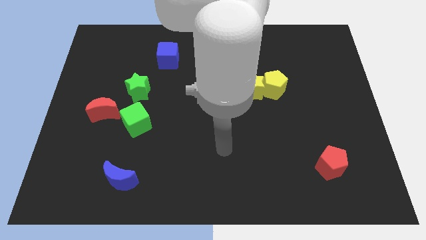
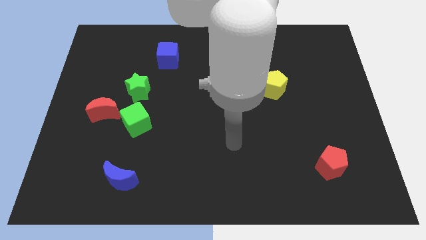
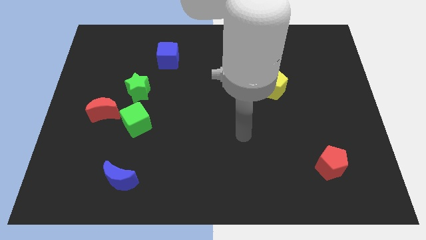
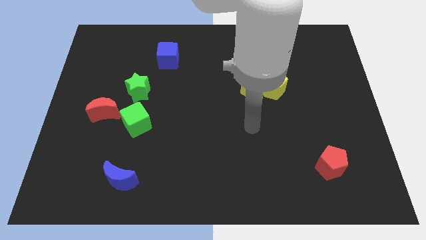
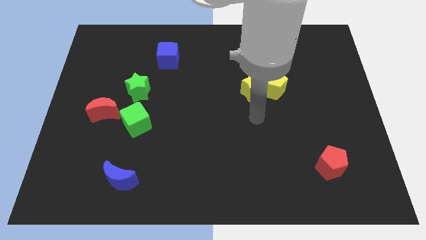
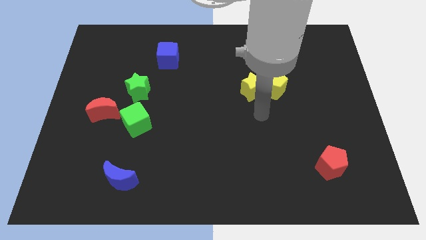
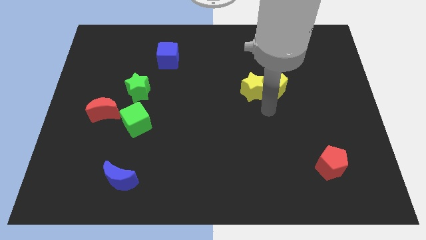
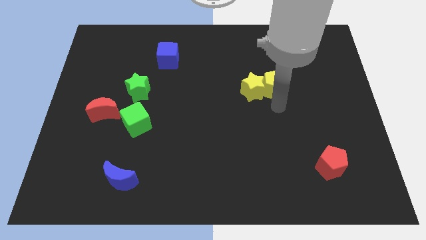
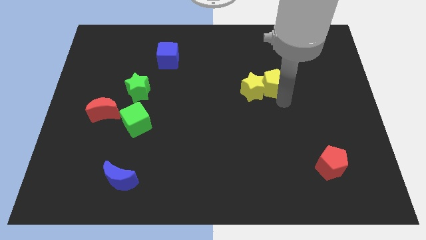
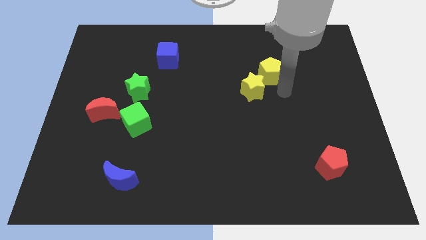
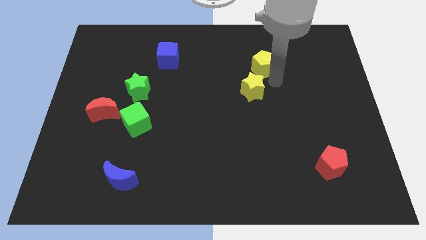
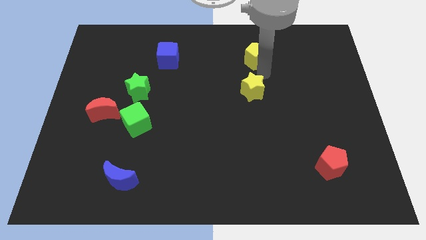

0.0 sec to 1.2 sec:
move the yellow star away from the yellow pentagon

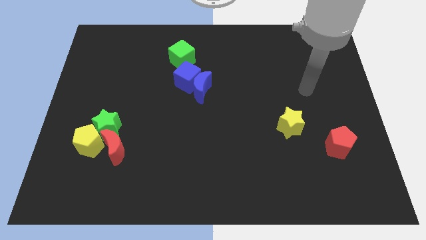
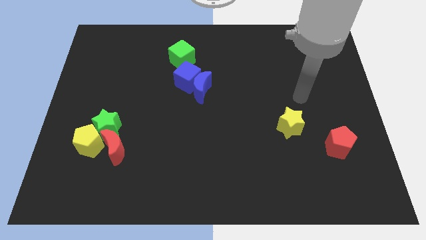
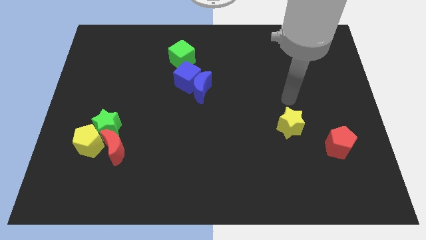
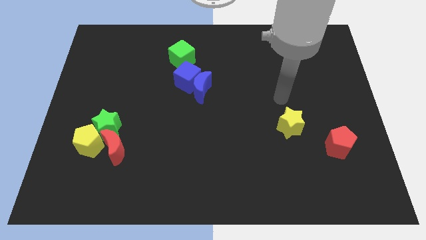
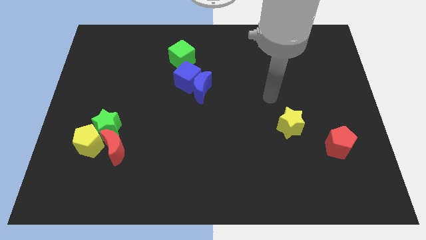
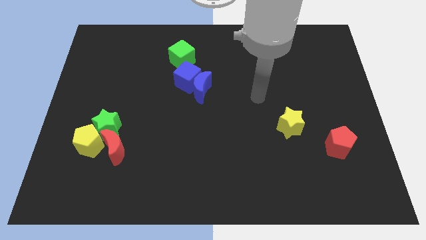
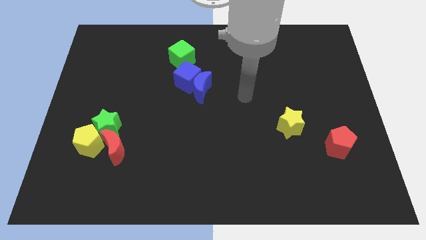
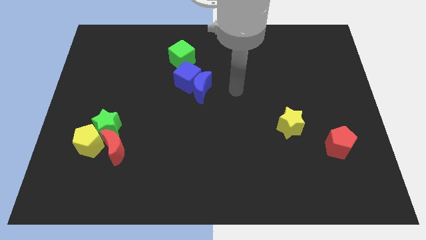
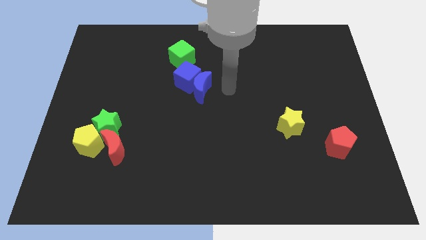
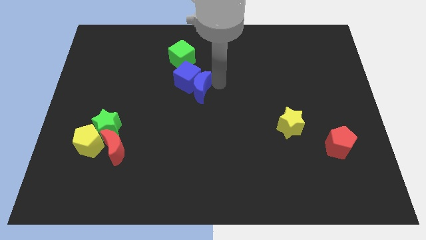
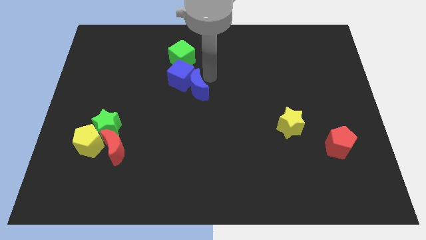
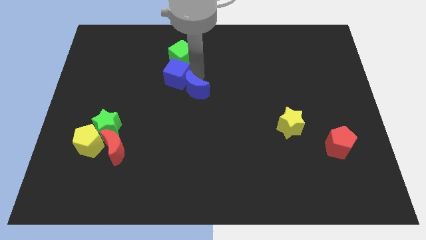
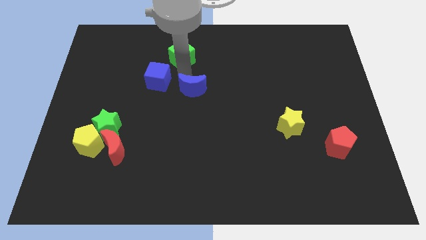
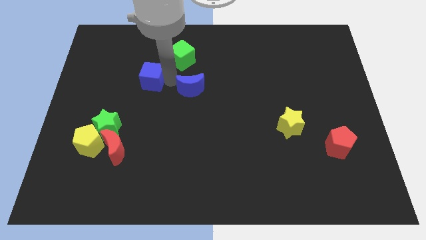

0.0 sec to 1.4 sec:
separate the blue moon from the blue cube

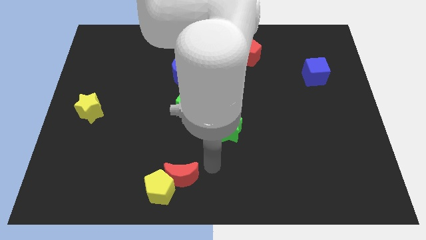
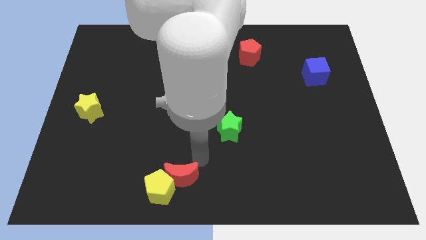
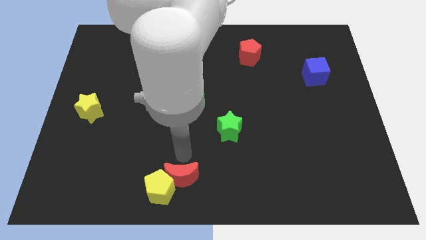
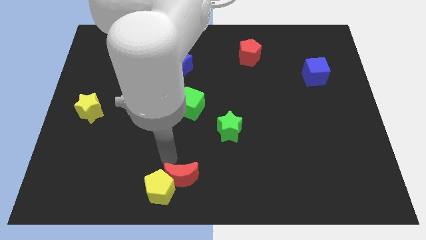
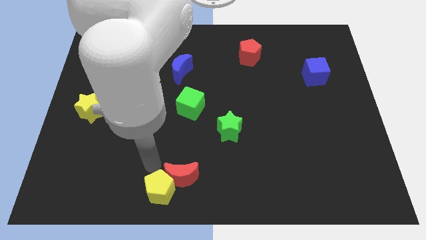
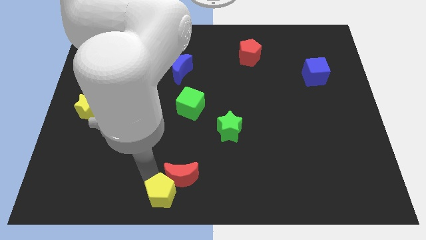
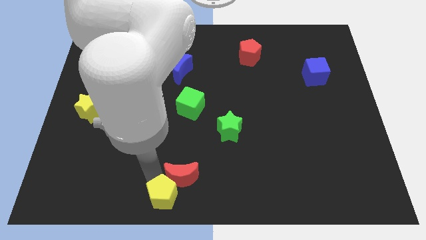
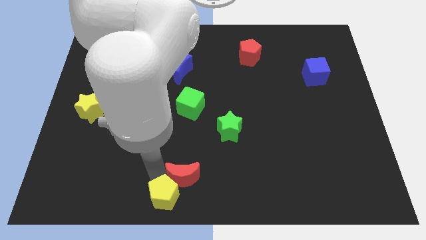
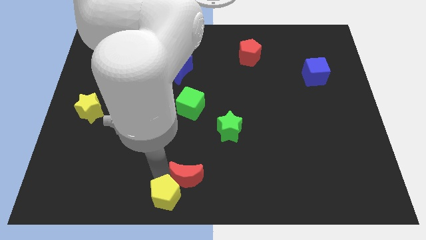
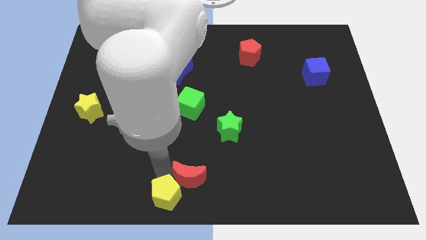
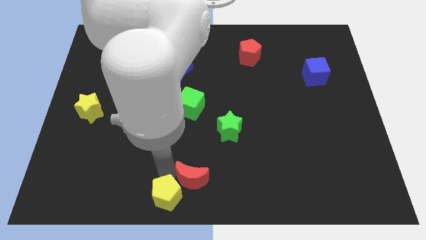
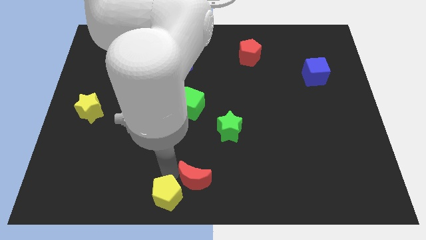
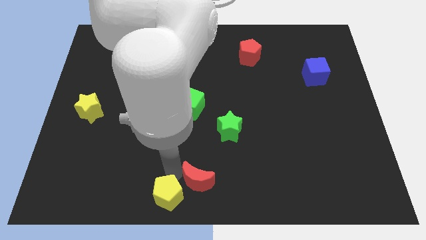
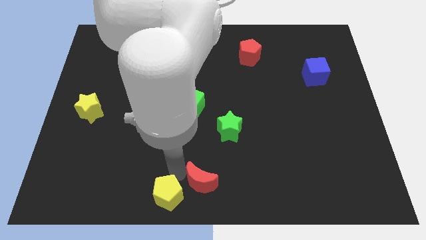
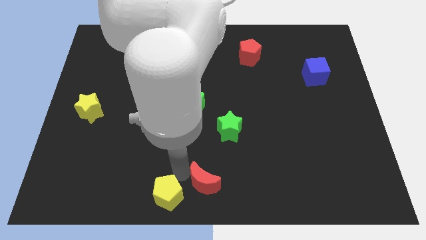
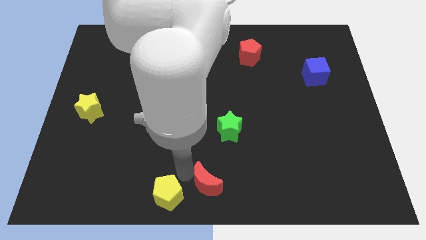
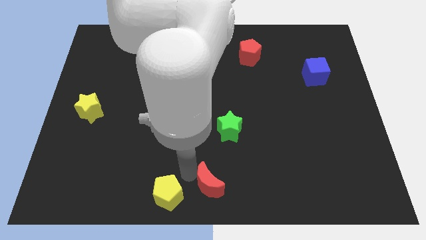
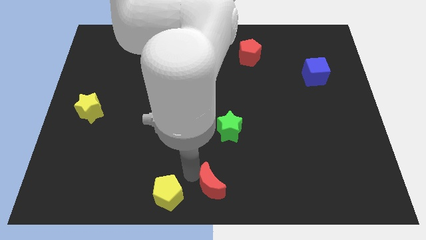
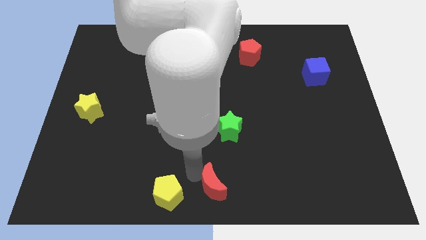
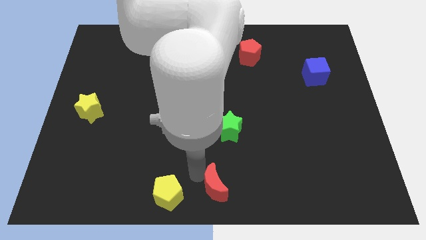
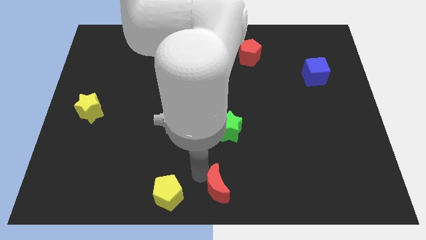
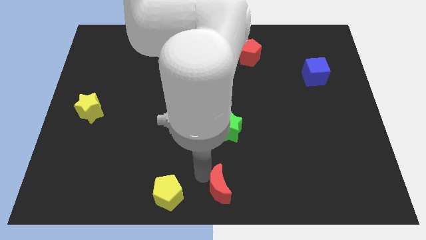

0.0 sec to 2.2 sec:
pull the red moon apart from the yellow pentagon

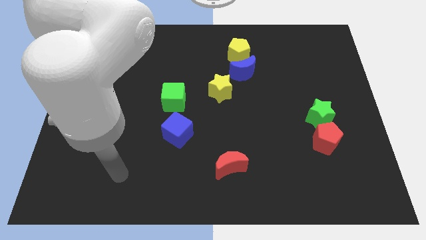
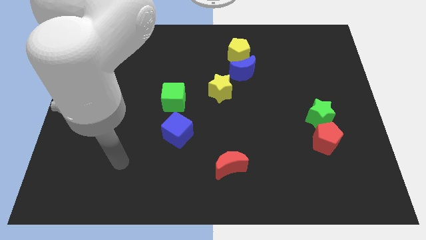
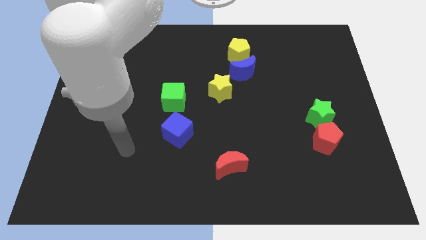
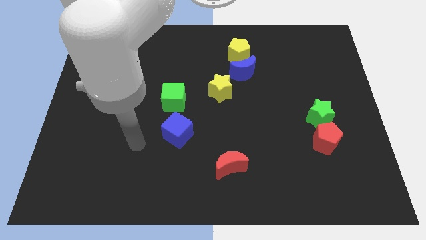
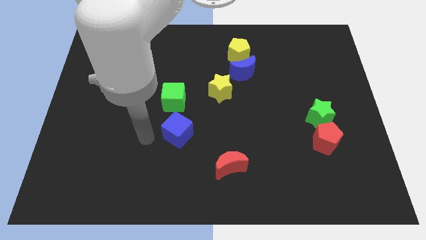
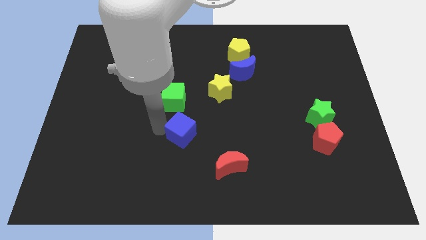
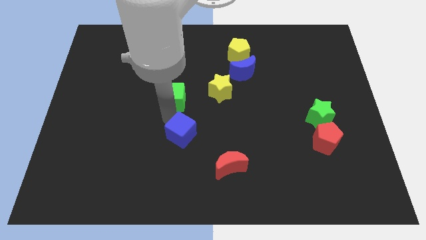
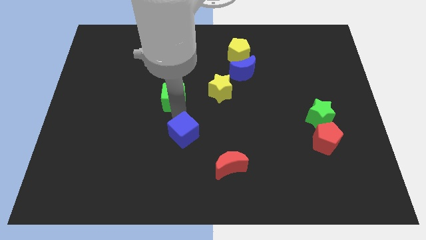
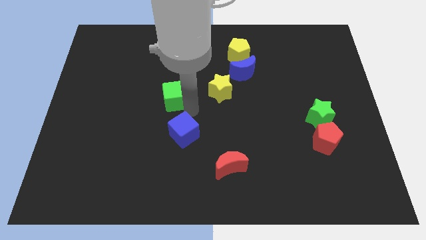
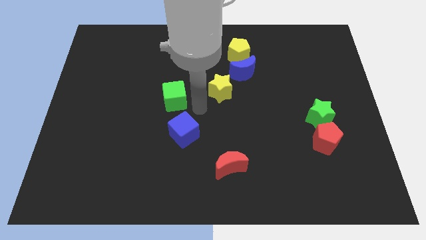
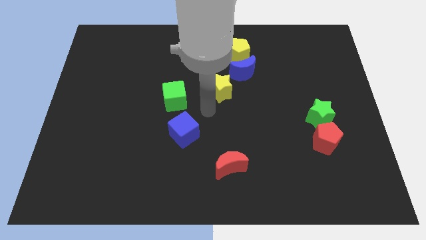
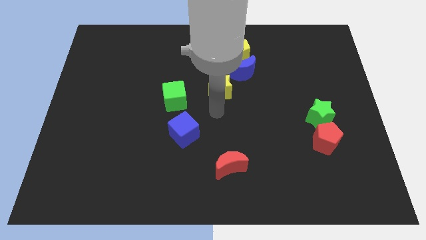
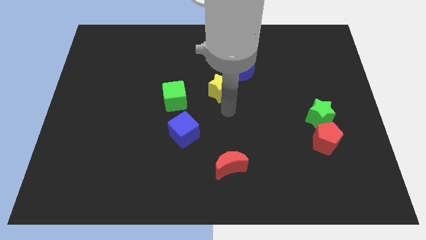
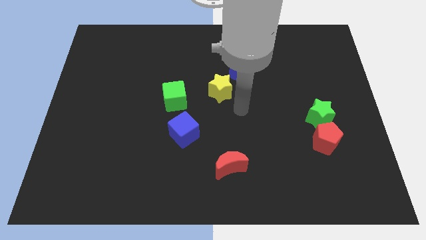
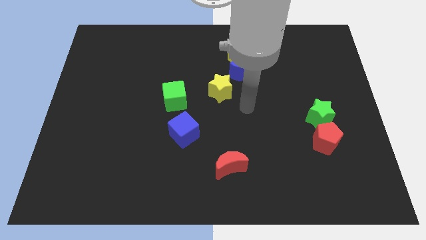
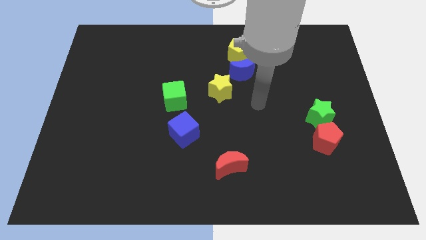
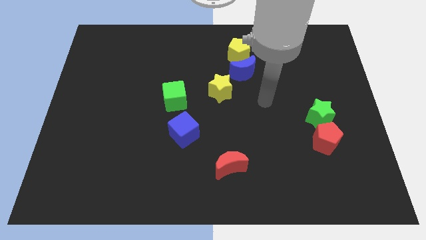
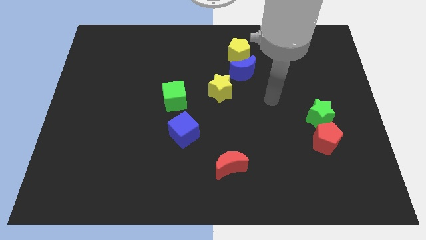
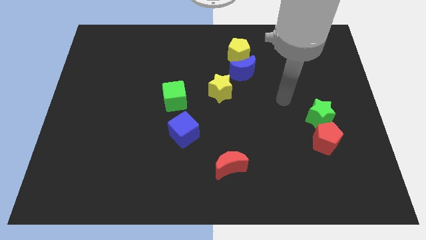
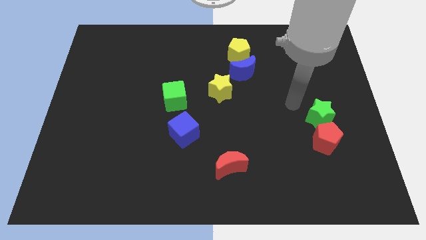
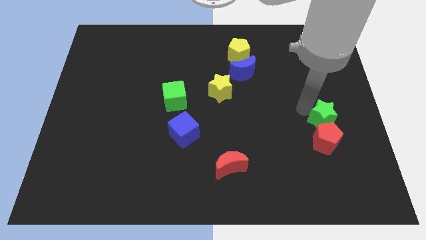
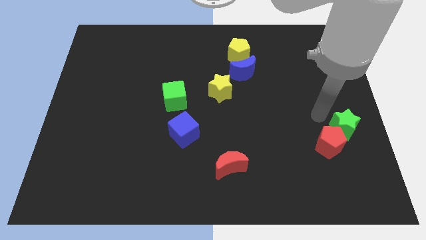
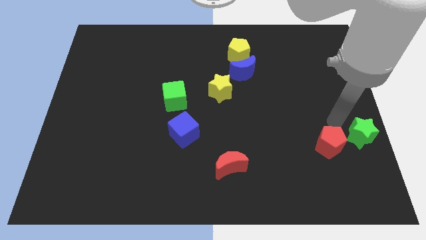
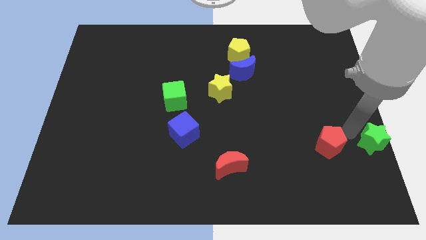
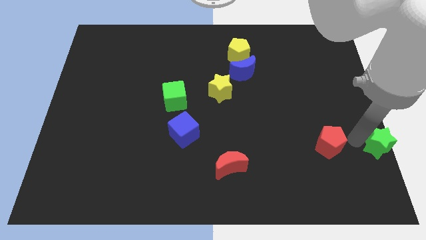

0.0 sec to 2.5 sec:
move the red pentagon away from the green star

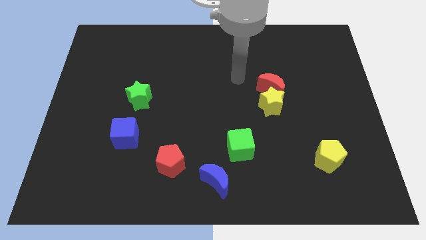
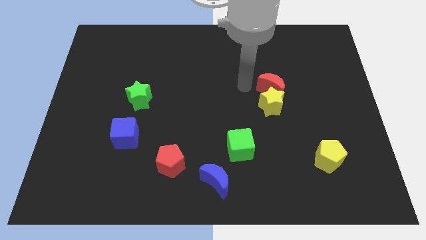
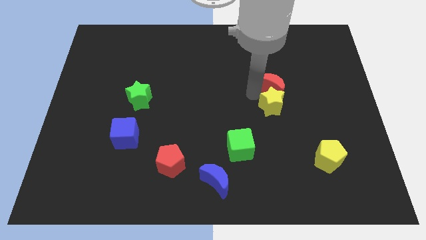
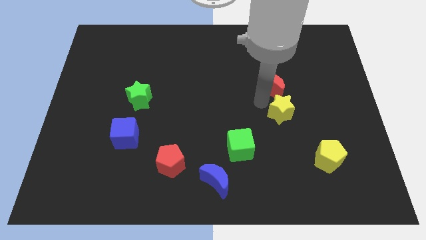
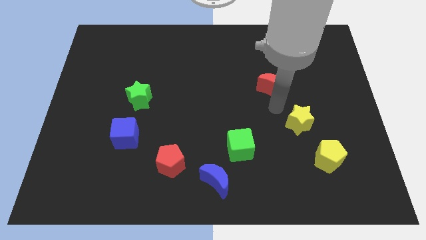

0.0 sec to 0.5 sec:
separate the red moon from the yellow star

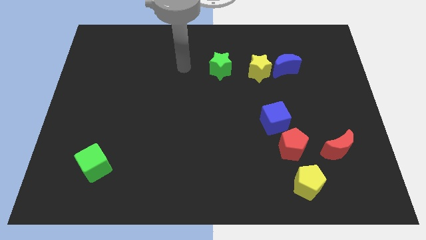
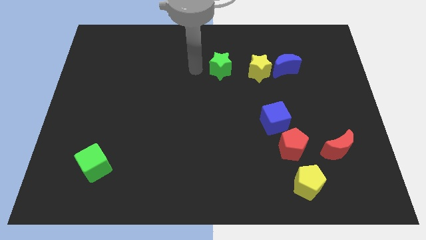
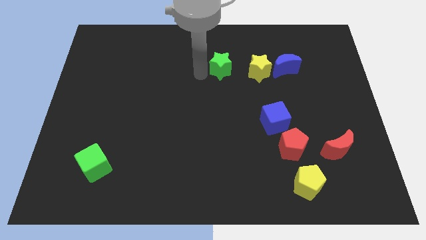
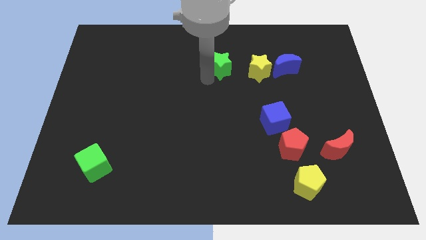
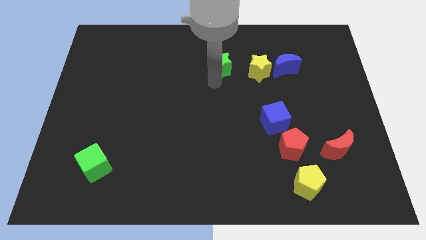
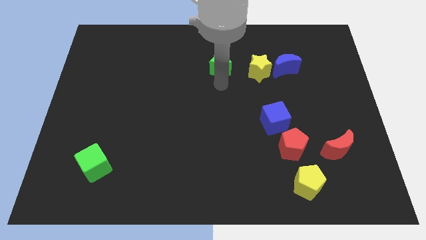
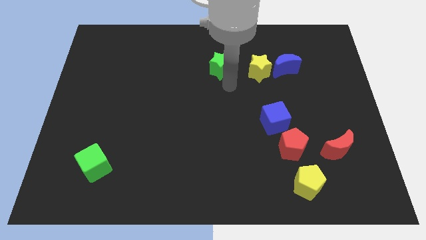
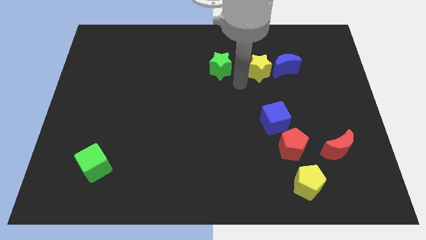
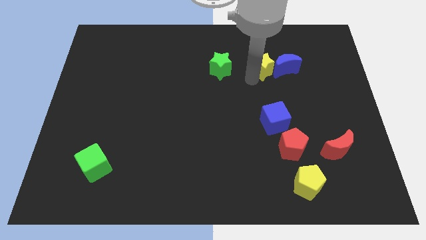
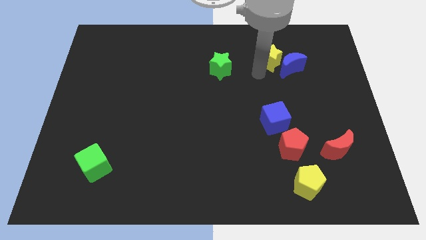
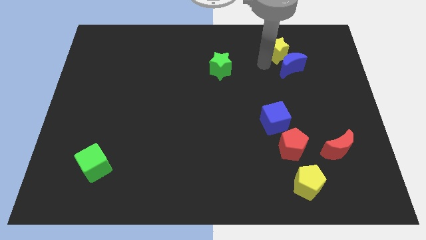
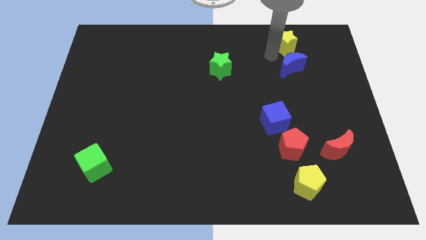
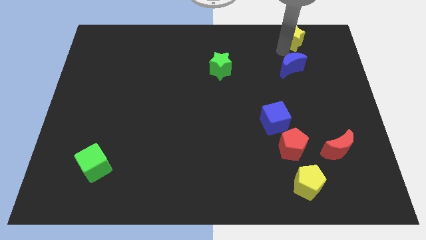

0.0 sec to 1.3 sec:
separate the blue moon from the yellow star

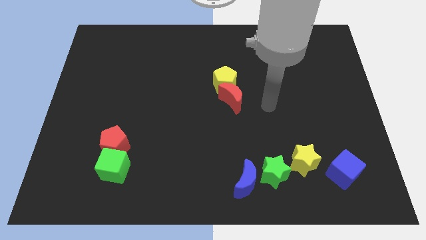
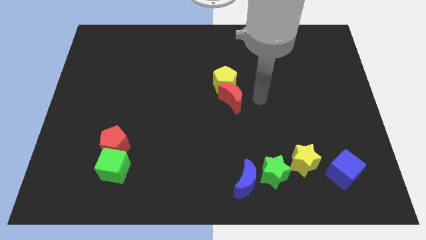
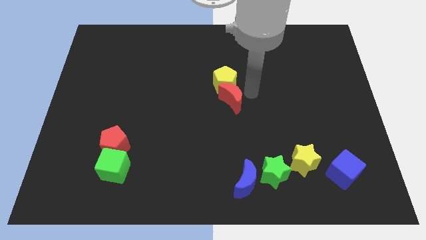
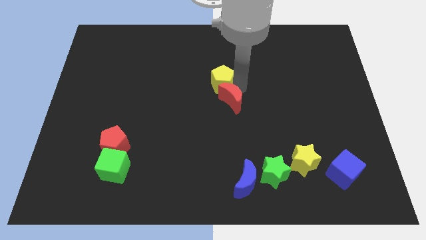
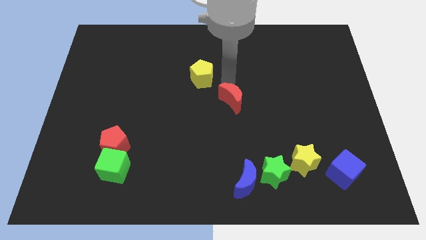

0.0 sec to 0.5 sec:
move the red moon away from the yellow pentagon
